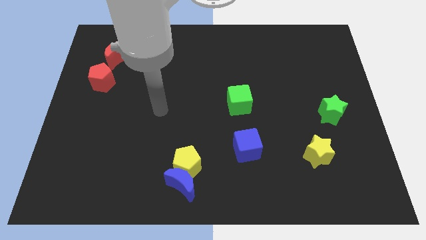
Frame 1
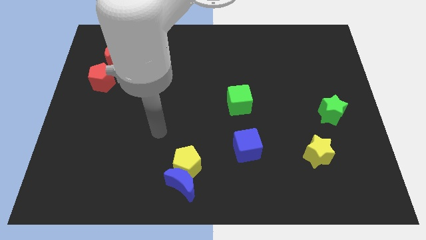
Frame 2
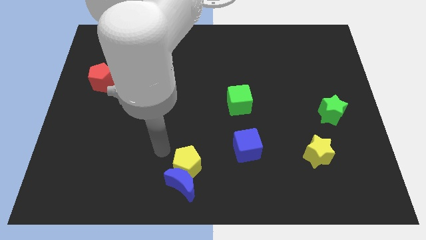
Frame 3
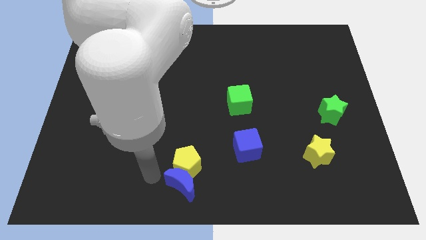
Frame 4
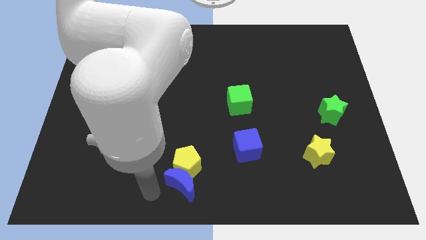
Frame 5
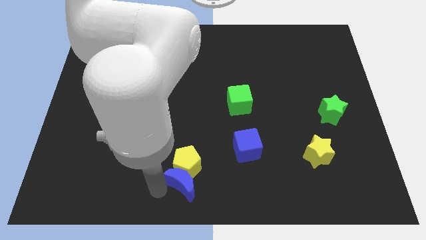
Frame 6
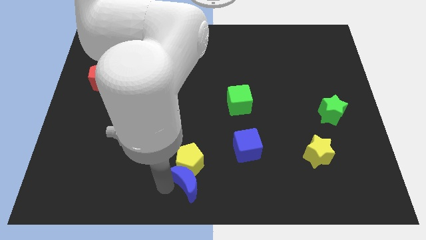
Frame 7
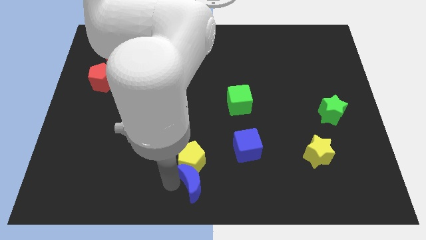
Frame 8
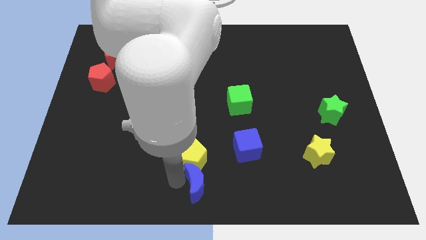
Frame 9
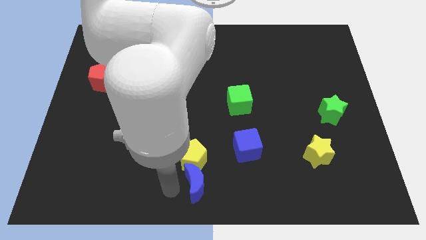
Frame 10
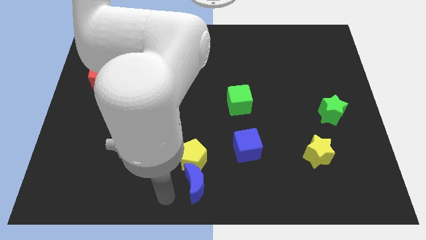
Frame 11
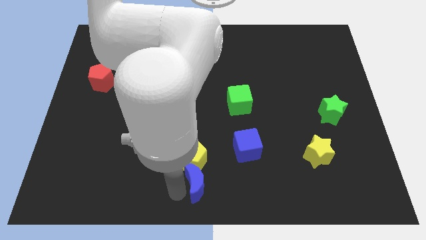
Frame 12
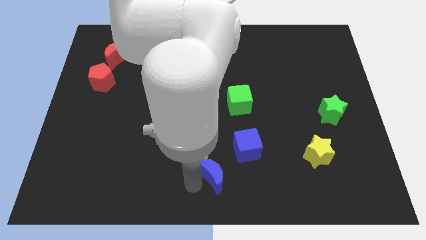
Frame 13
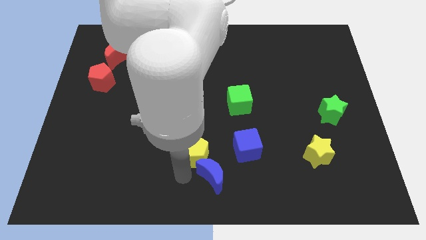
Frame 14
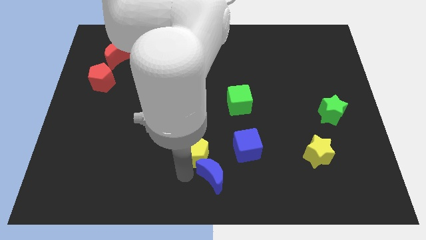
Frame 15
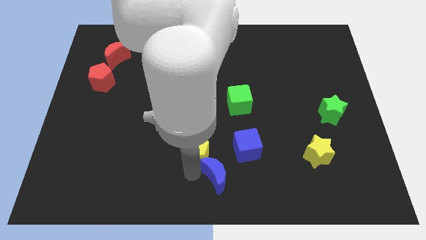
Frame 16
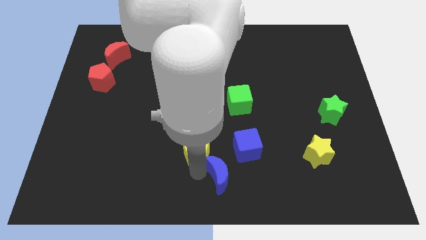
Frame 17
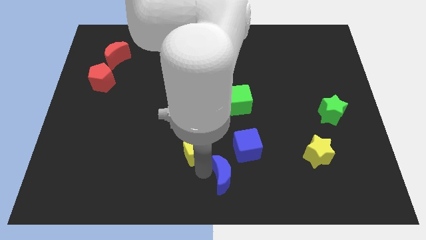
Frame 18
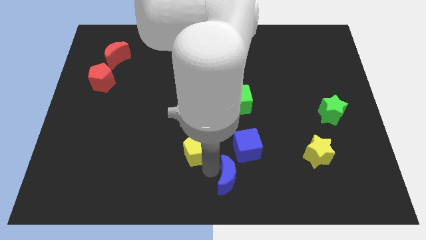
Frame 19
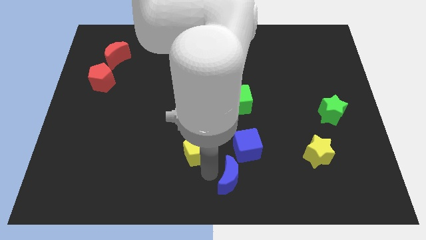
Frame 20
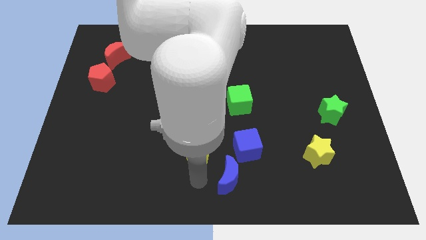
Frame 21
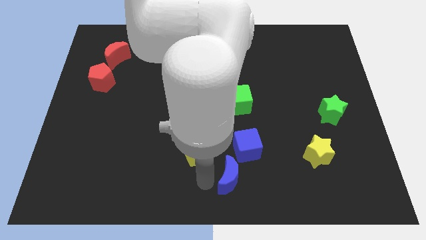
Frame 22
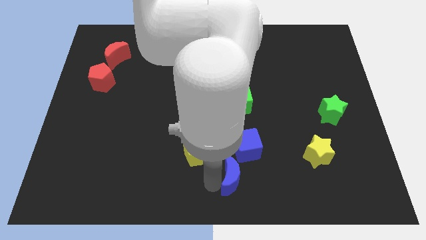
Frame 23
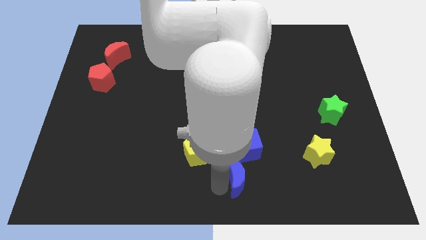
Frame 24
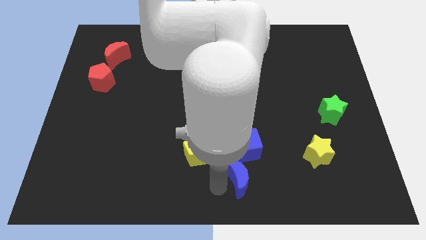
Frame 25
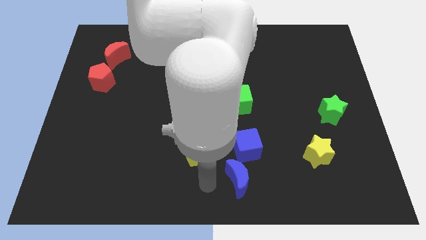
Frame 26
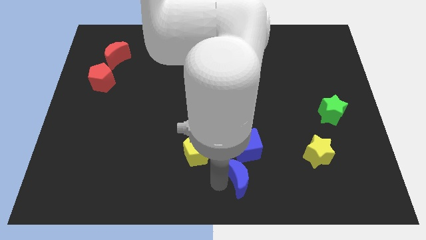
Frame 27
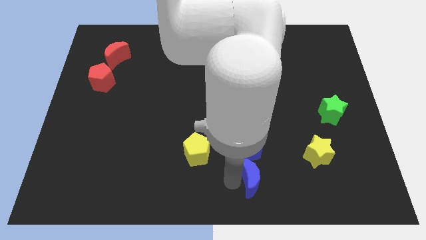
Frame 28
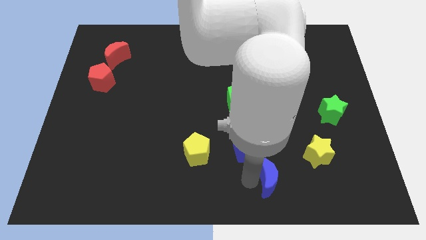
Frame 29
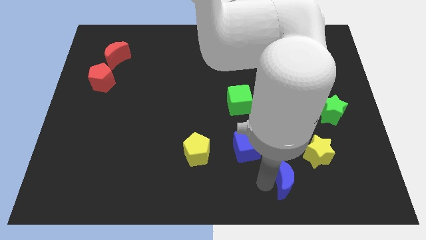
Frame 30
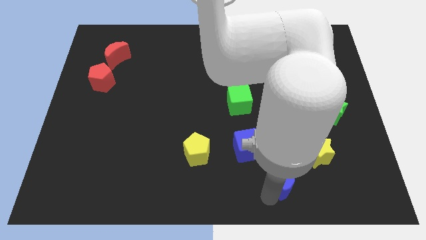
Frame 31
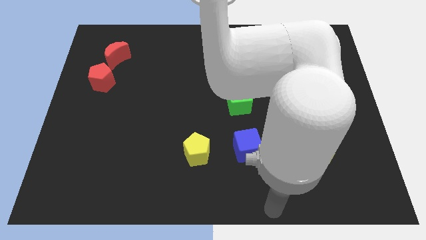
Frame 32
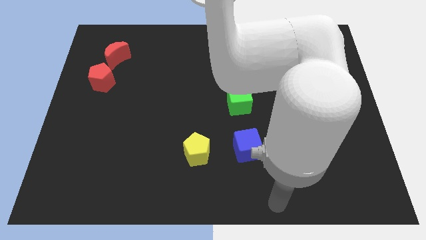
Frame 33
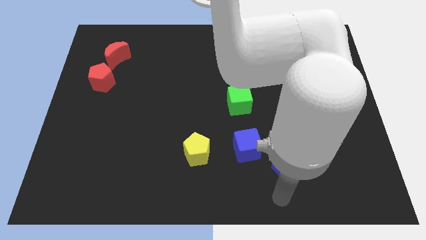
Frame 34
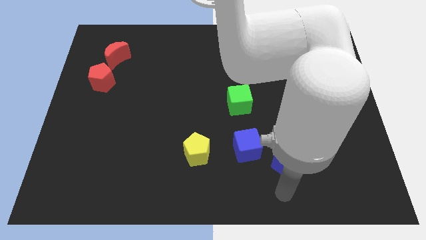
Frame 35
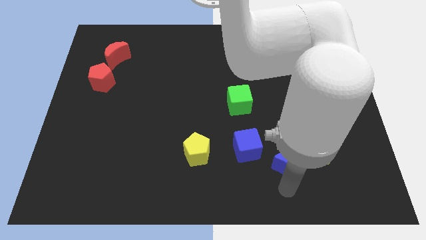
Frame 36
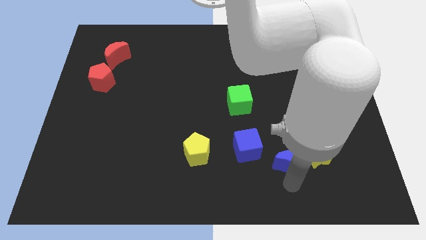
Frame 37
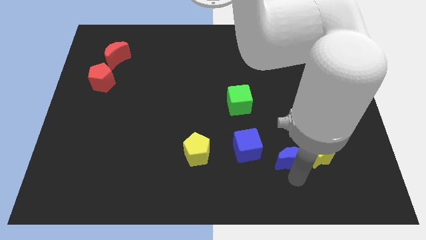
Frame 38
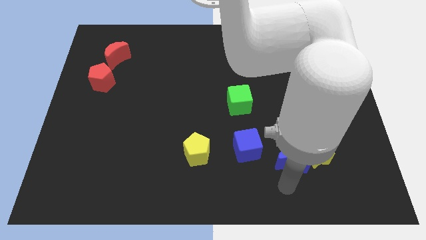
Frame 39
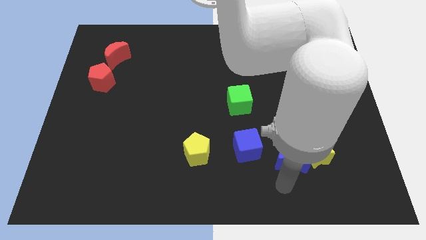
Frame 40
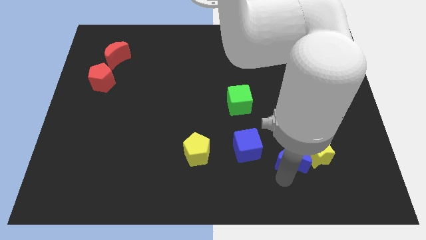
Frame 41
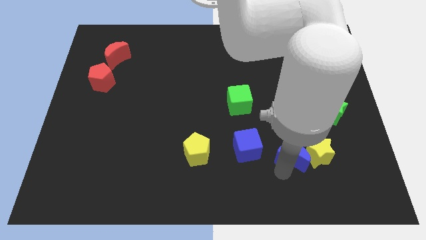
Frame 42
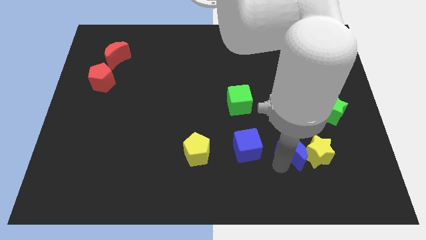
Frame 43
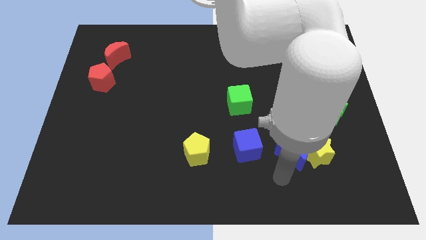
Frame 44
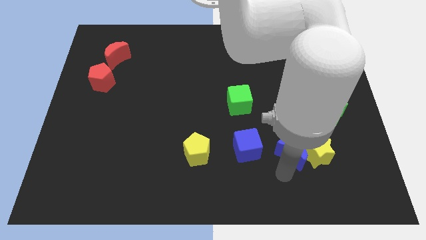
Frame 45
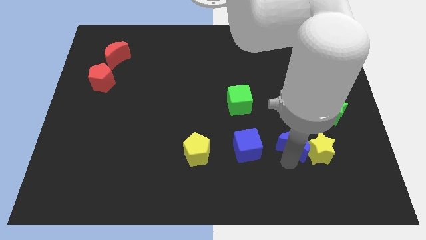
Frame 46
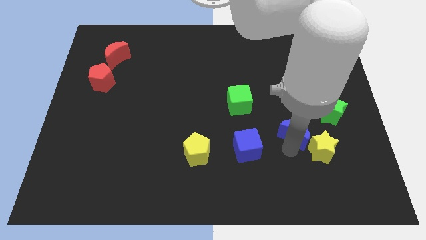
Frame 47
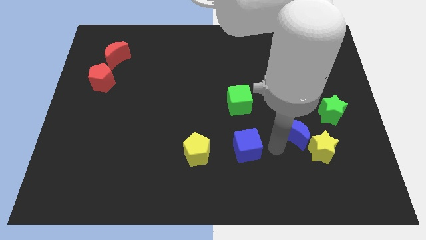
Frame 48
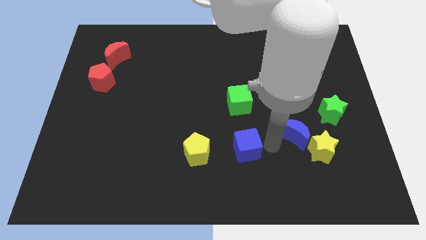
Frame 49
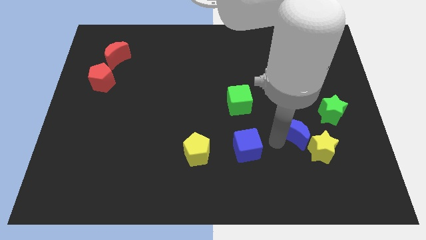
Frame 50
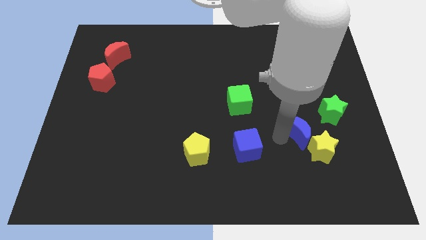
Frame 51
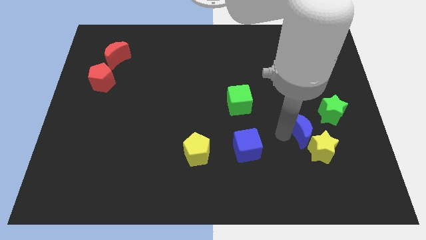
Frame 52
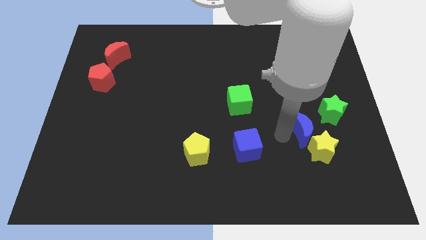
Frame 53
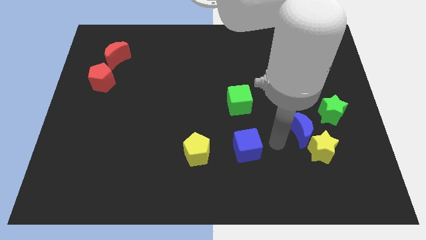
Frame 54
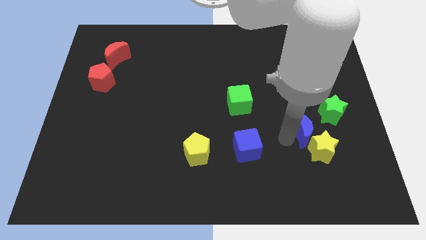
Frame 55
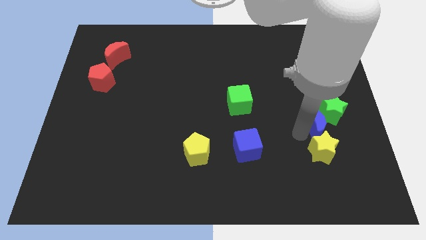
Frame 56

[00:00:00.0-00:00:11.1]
put the blue moon to the green star

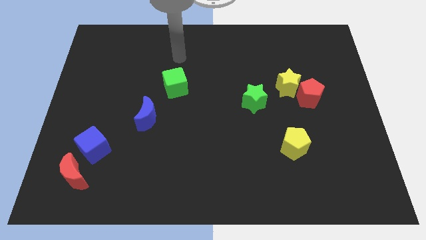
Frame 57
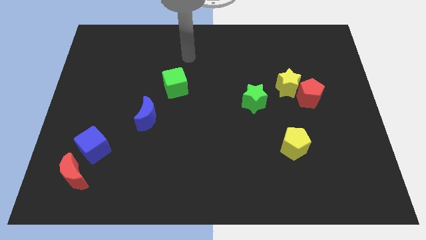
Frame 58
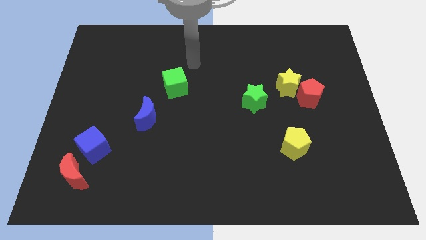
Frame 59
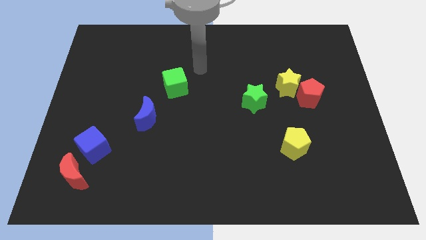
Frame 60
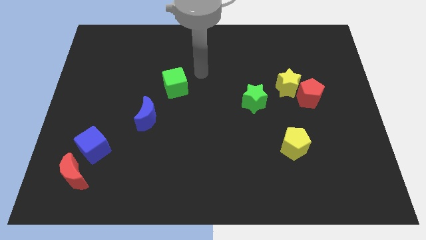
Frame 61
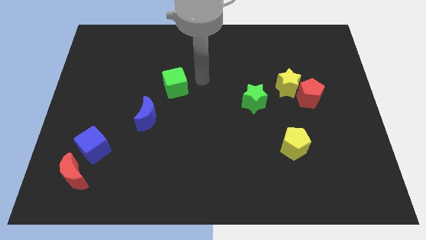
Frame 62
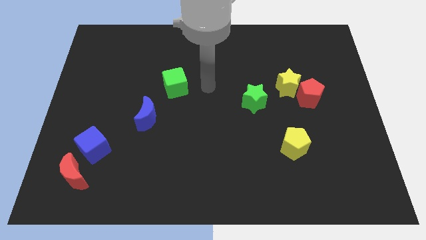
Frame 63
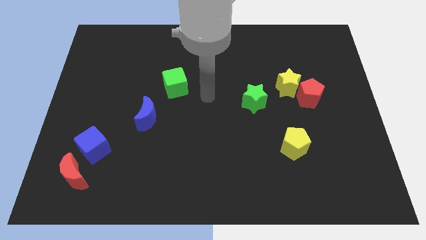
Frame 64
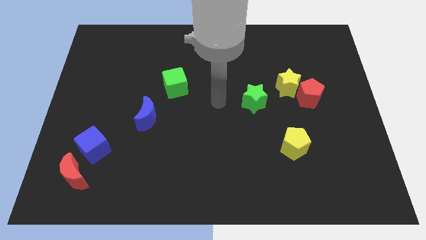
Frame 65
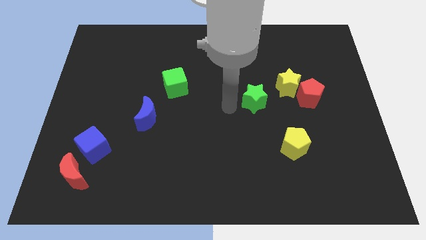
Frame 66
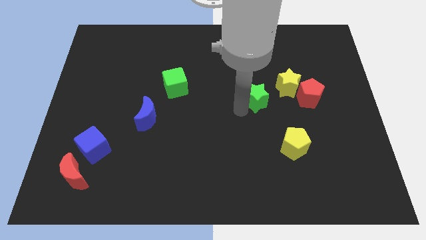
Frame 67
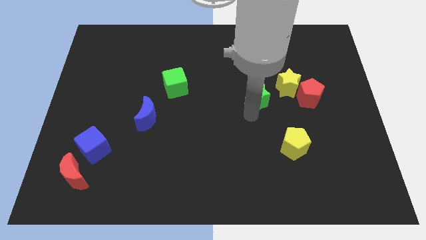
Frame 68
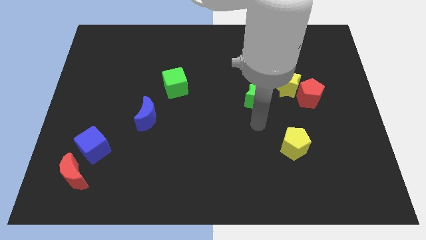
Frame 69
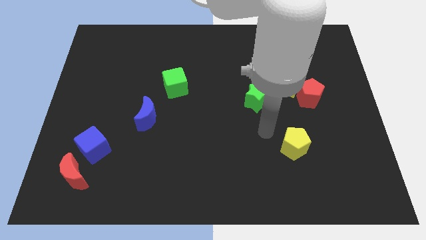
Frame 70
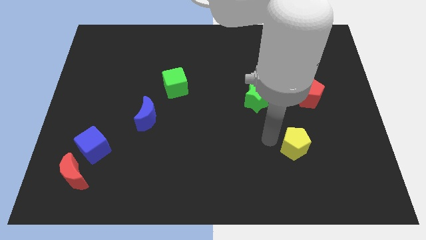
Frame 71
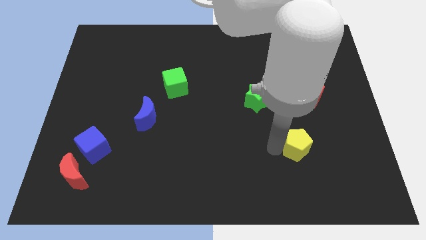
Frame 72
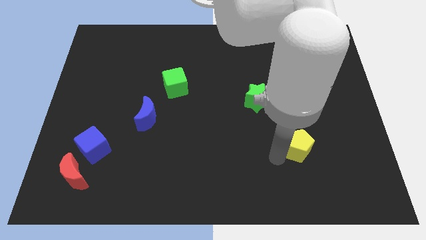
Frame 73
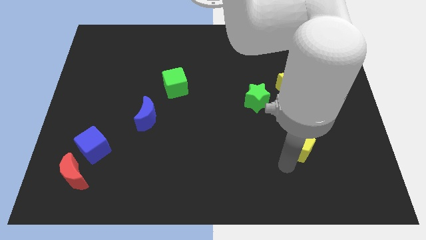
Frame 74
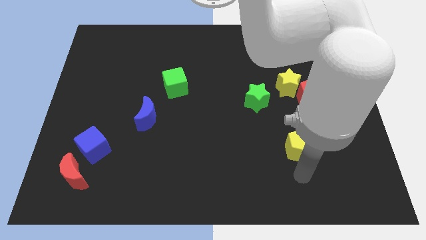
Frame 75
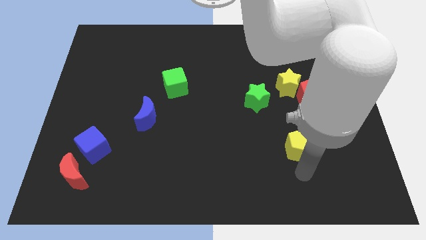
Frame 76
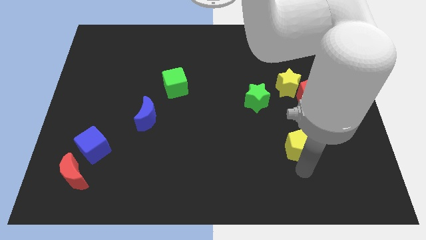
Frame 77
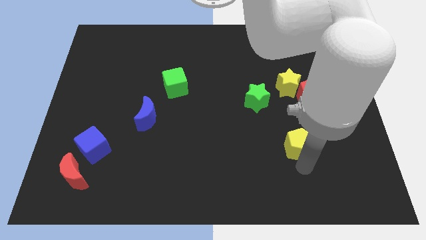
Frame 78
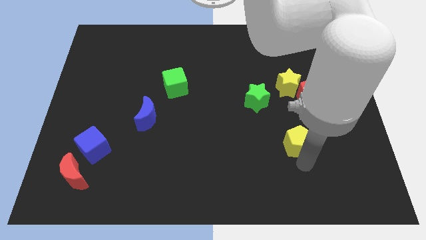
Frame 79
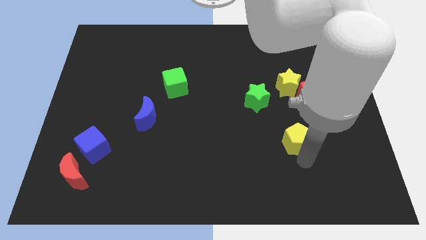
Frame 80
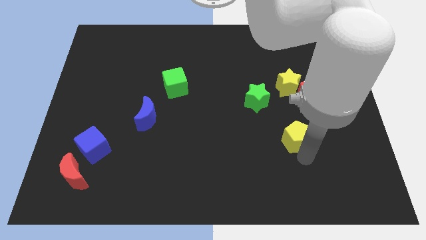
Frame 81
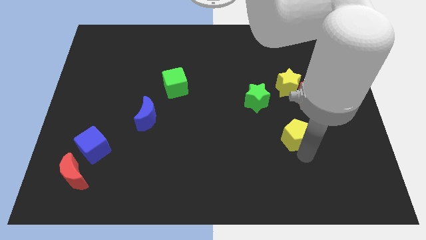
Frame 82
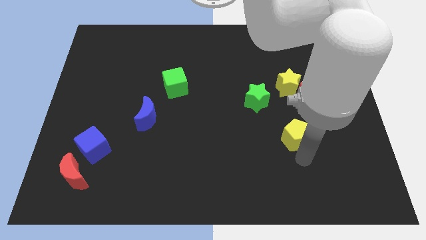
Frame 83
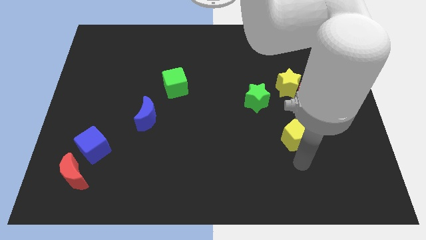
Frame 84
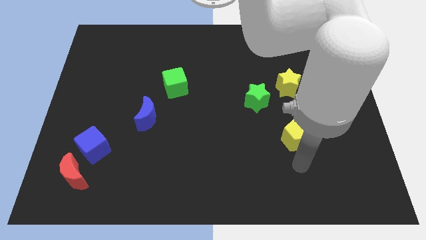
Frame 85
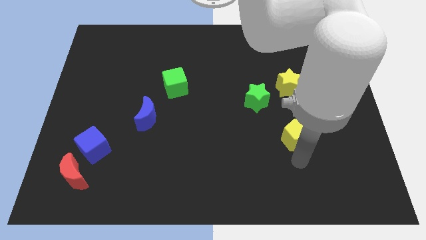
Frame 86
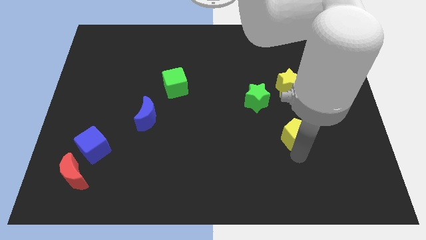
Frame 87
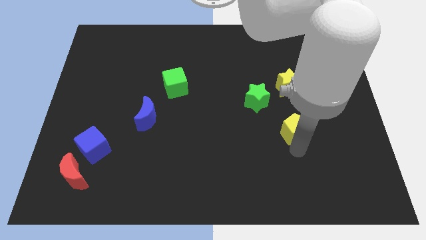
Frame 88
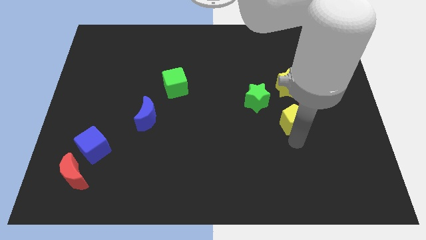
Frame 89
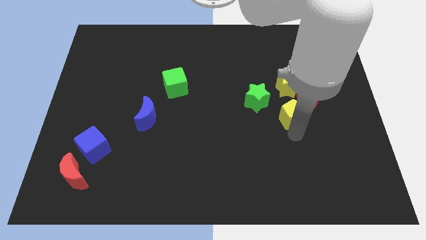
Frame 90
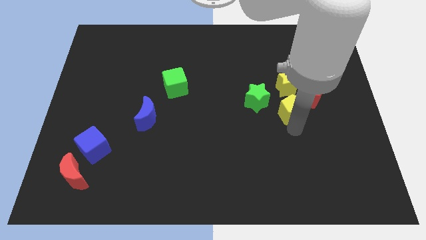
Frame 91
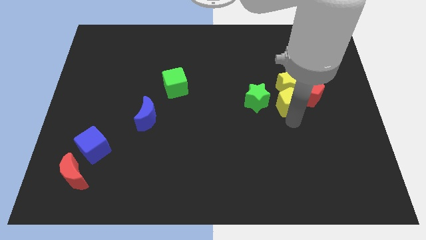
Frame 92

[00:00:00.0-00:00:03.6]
push the yellow pentagon to the yellow star
